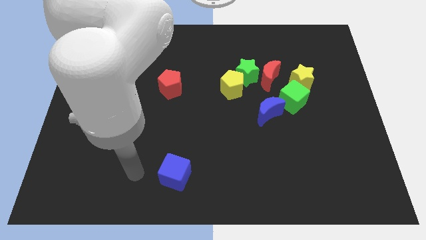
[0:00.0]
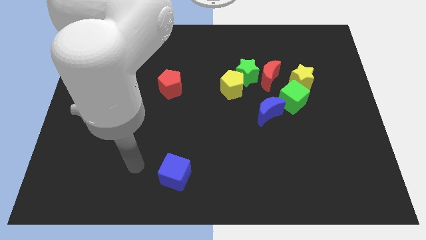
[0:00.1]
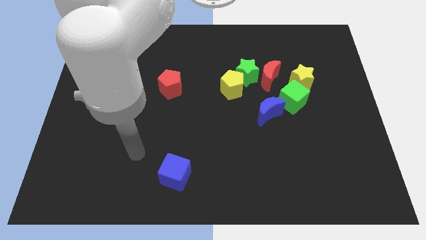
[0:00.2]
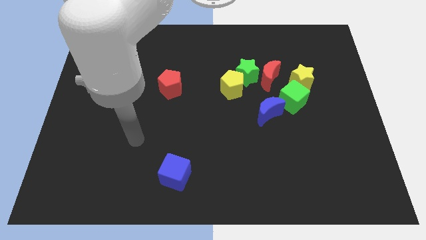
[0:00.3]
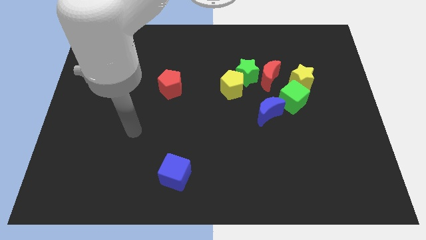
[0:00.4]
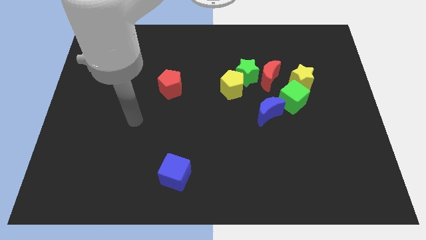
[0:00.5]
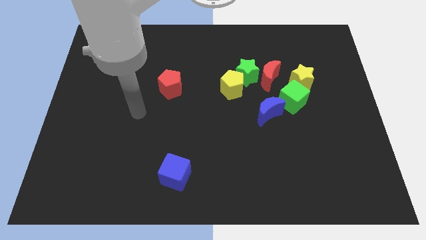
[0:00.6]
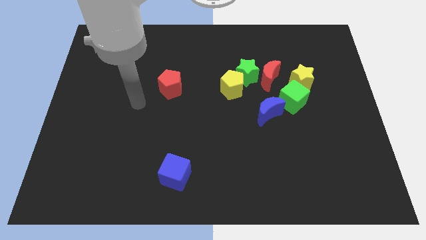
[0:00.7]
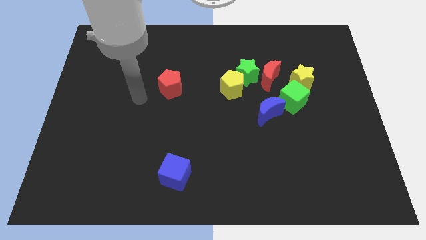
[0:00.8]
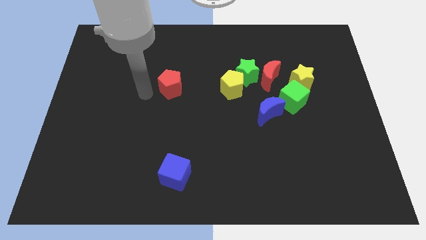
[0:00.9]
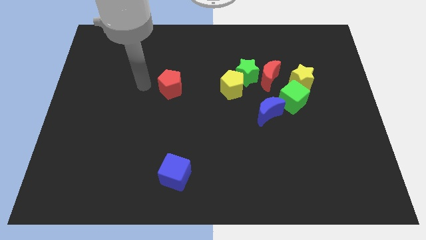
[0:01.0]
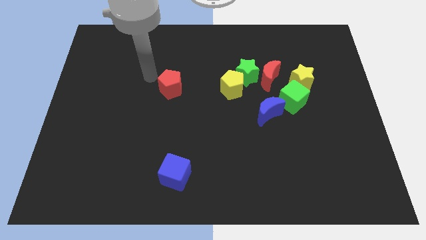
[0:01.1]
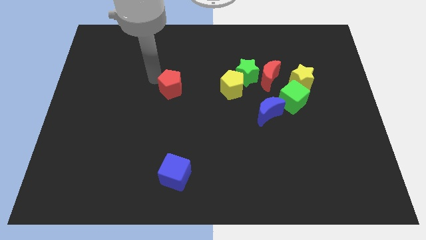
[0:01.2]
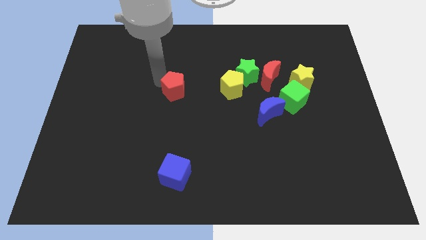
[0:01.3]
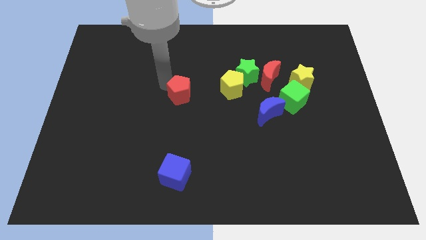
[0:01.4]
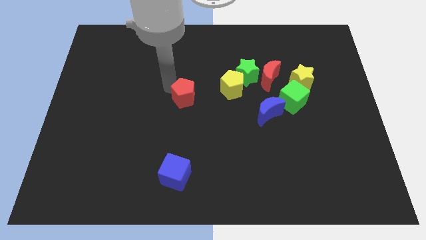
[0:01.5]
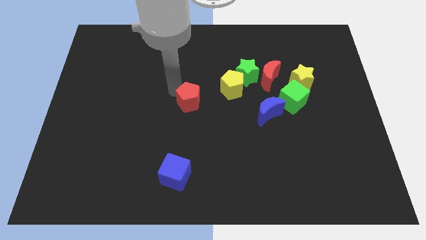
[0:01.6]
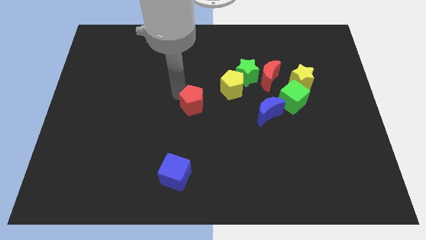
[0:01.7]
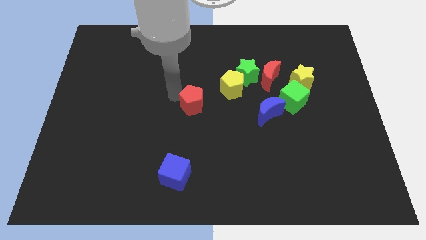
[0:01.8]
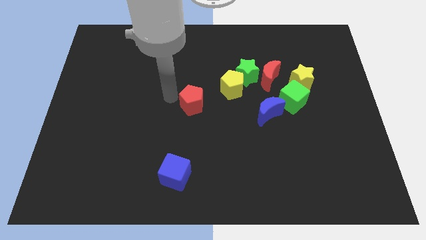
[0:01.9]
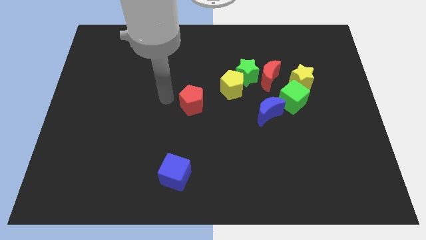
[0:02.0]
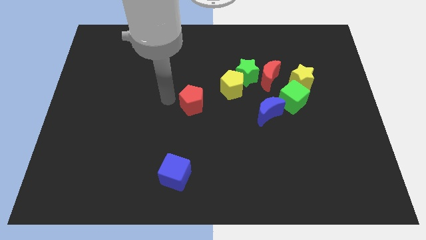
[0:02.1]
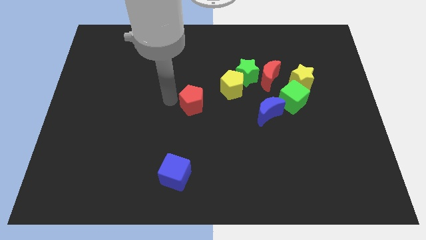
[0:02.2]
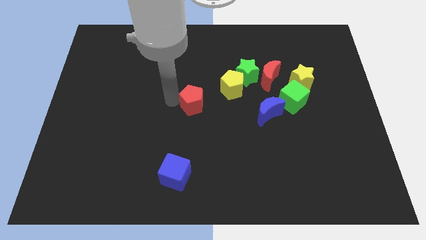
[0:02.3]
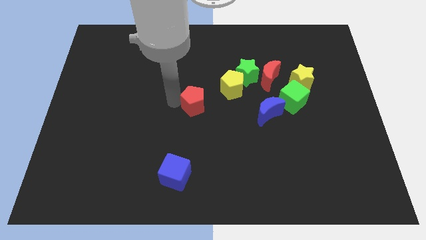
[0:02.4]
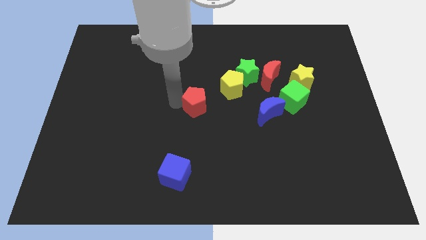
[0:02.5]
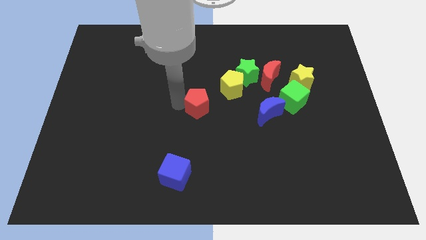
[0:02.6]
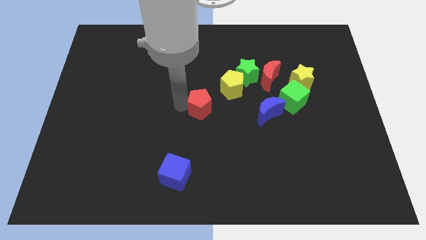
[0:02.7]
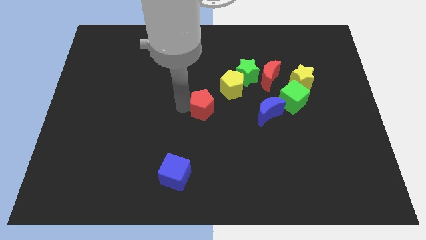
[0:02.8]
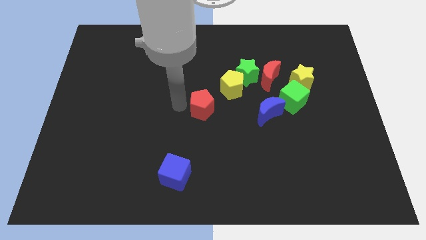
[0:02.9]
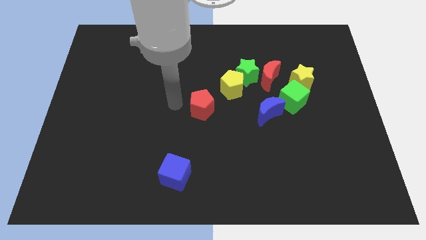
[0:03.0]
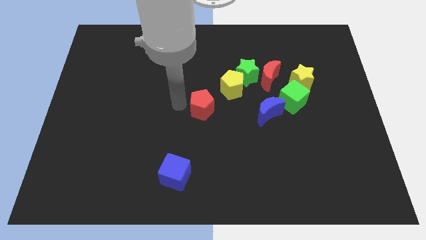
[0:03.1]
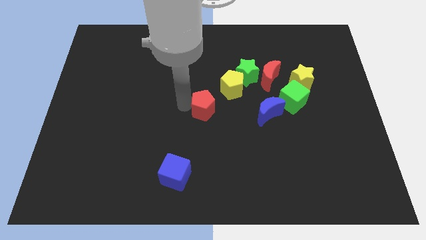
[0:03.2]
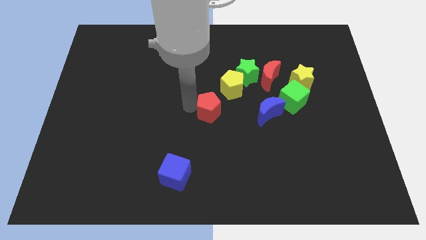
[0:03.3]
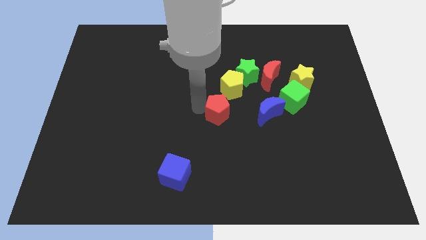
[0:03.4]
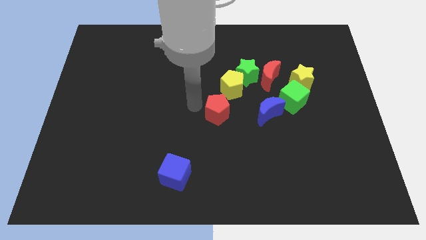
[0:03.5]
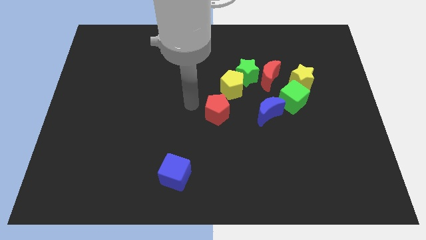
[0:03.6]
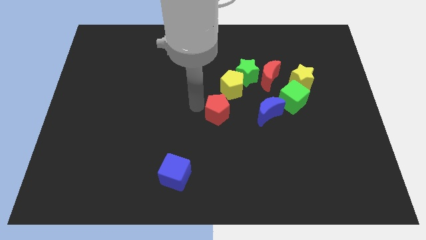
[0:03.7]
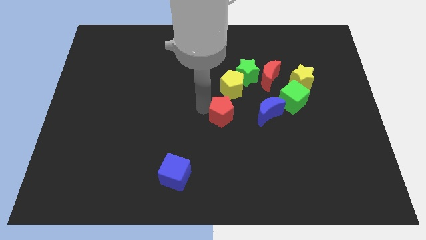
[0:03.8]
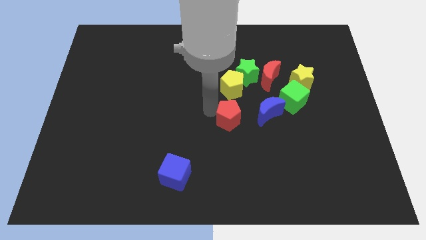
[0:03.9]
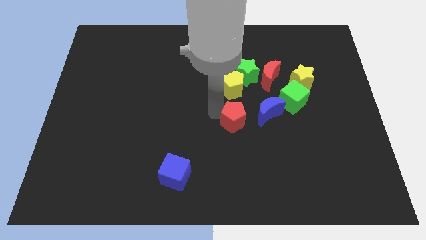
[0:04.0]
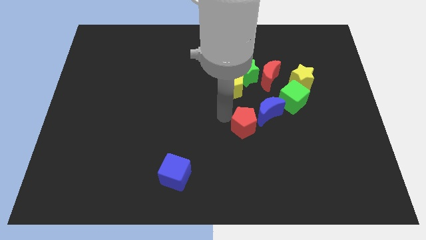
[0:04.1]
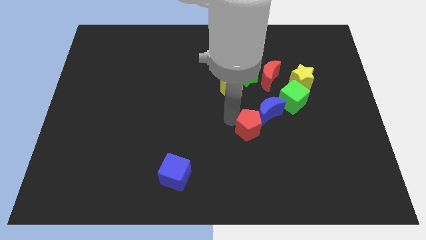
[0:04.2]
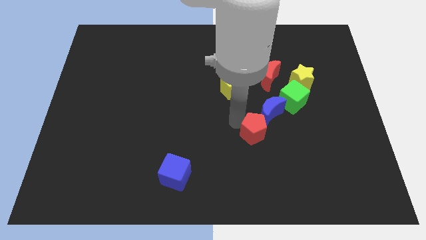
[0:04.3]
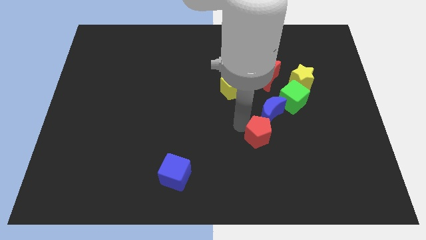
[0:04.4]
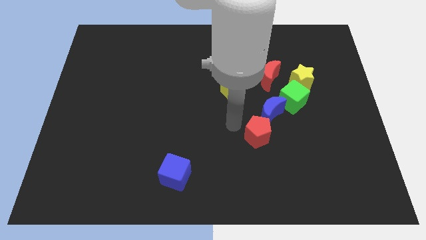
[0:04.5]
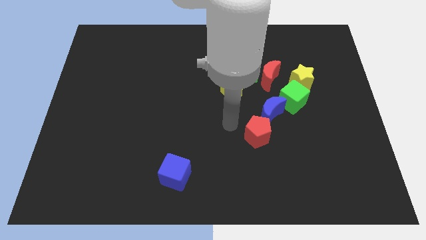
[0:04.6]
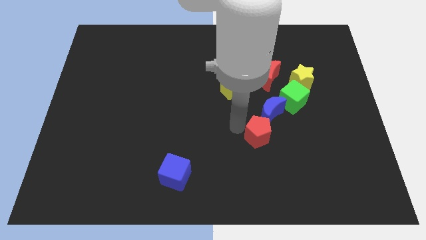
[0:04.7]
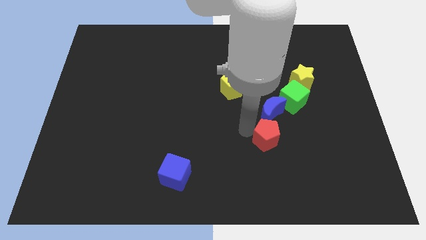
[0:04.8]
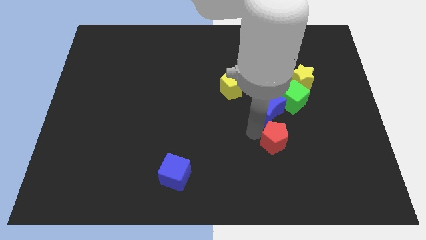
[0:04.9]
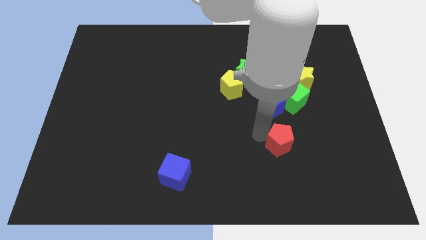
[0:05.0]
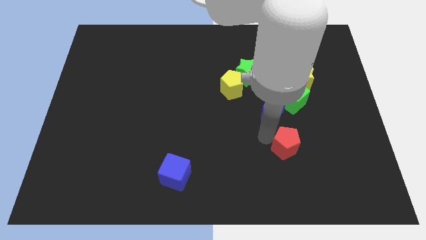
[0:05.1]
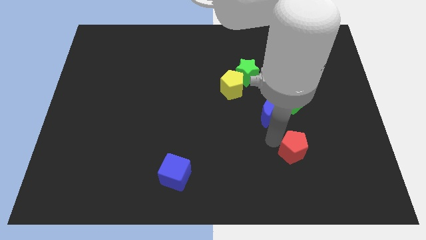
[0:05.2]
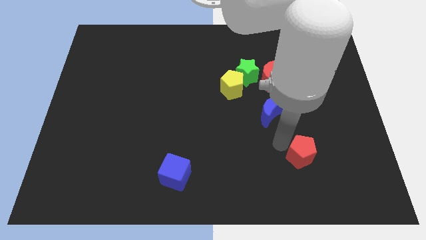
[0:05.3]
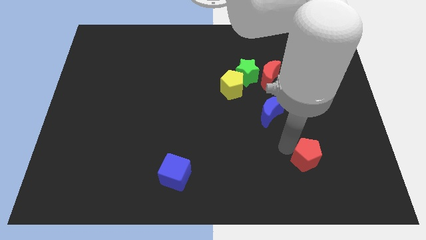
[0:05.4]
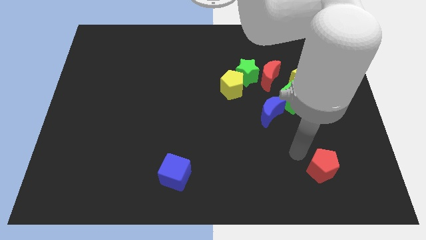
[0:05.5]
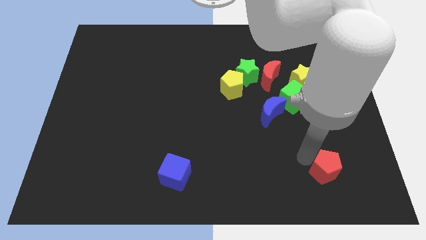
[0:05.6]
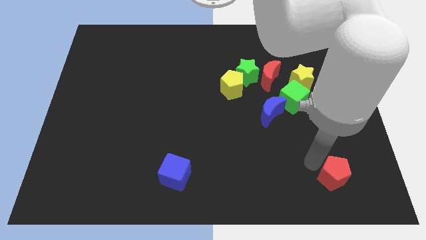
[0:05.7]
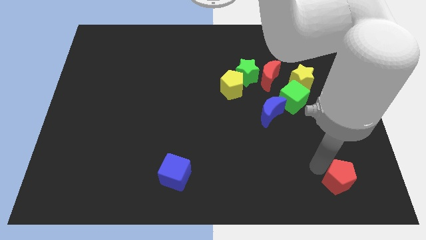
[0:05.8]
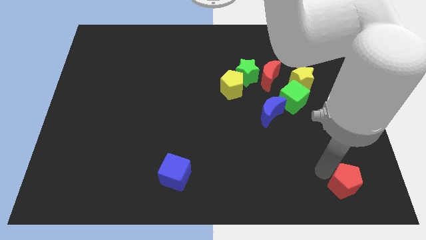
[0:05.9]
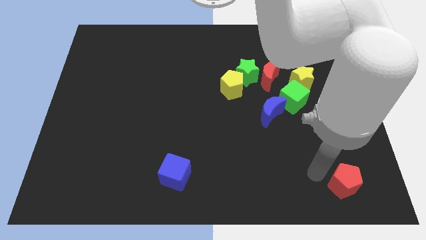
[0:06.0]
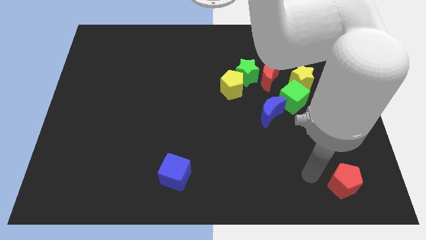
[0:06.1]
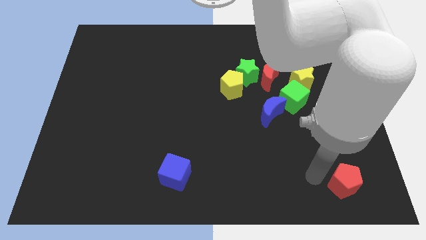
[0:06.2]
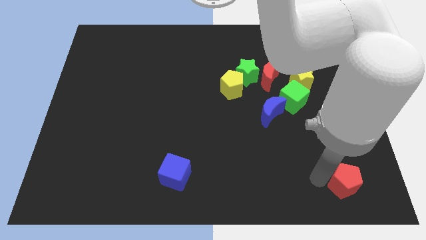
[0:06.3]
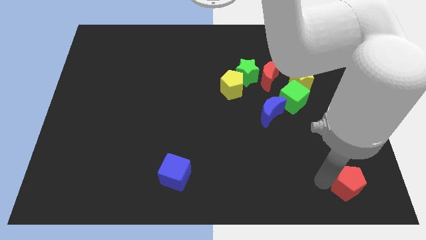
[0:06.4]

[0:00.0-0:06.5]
push the red pentagon to the bottom right
